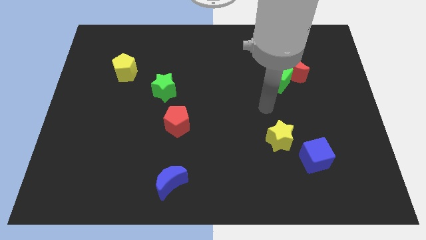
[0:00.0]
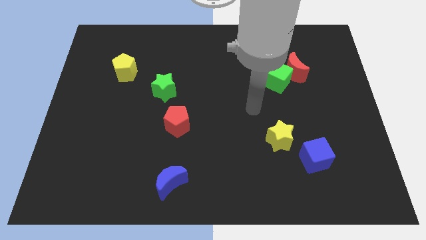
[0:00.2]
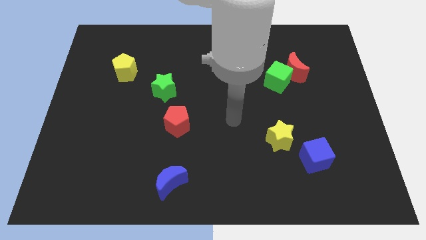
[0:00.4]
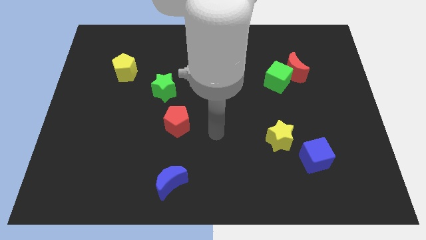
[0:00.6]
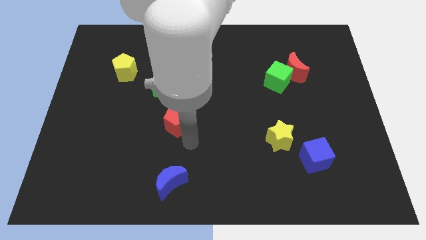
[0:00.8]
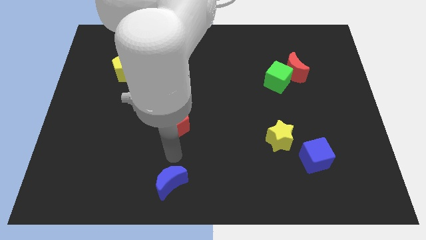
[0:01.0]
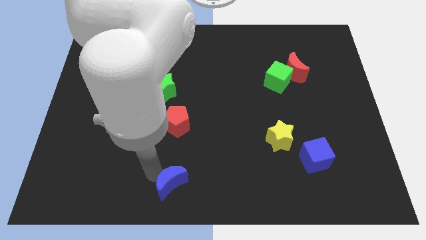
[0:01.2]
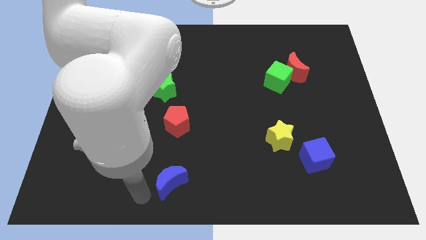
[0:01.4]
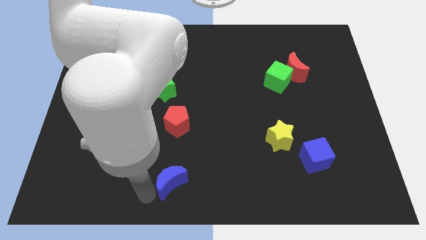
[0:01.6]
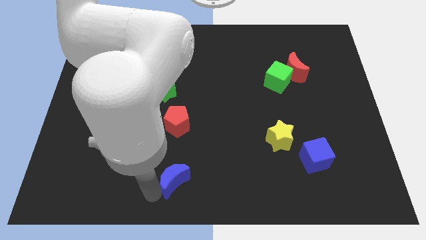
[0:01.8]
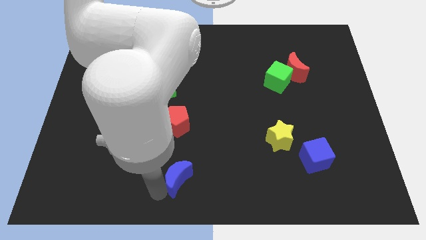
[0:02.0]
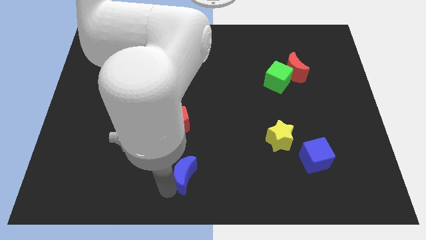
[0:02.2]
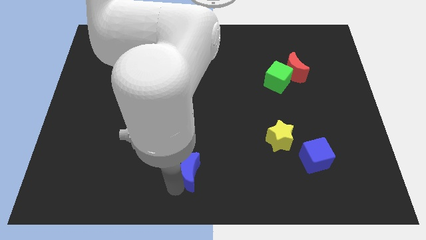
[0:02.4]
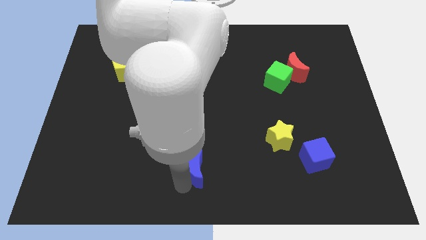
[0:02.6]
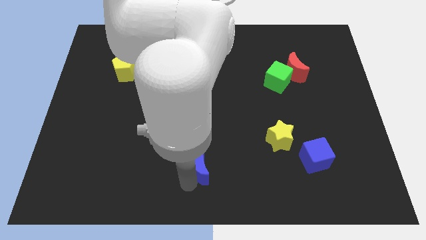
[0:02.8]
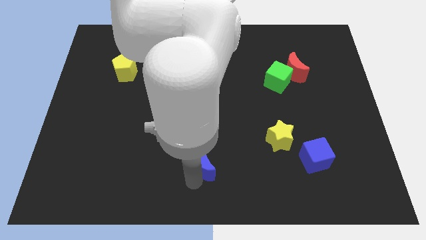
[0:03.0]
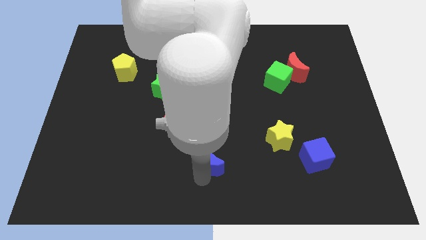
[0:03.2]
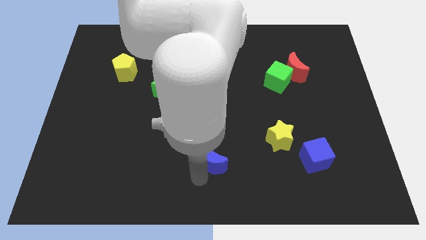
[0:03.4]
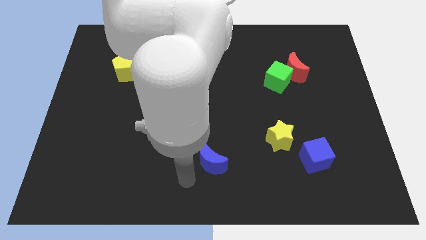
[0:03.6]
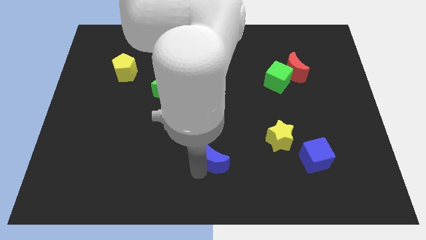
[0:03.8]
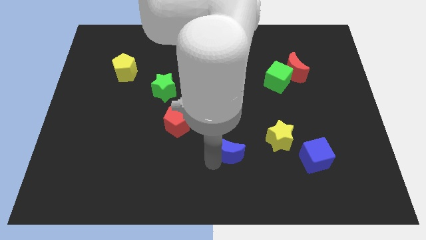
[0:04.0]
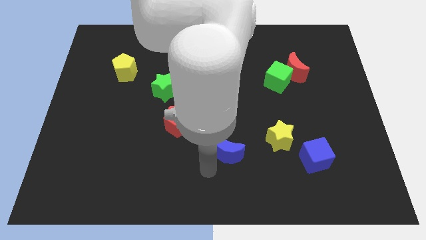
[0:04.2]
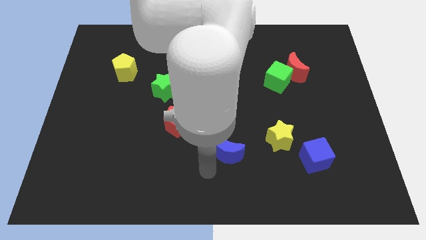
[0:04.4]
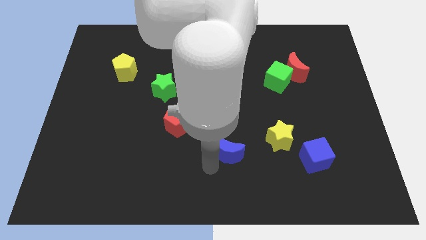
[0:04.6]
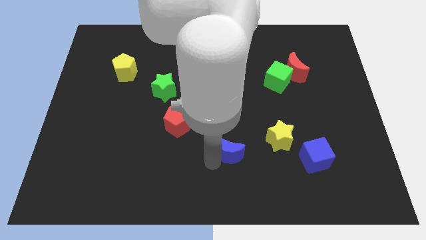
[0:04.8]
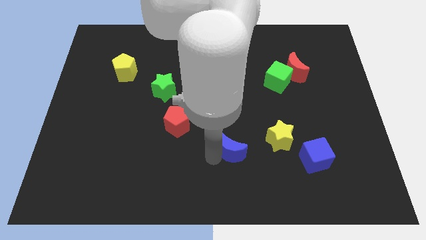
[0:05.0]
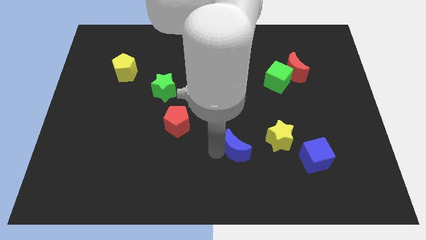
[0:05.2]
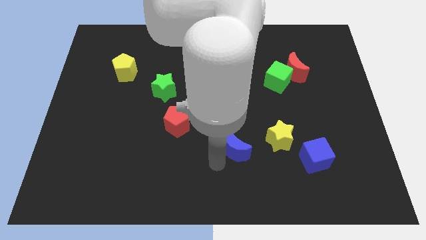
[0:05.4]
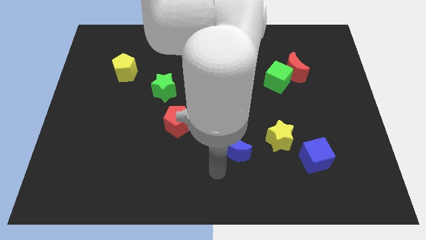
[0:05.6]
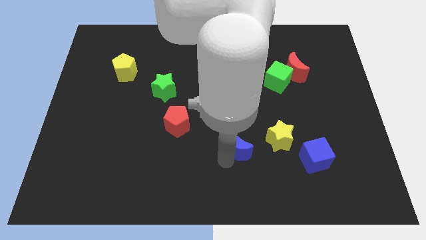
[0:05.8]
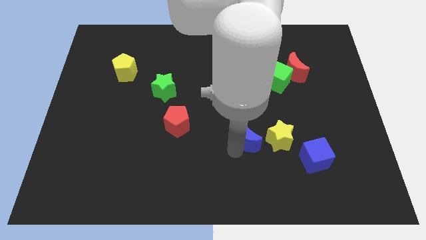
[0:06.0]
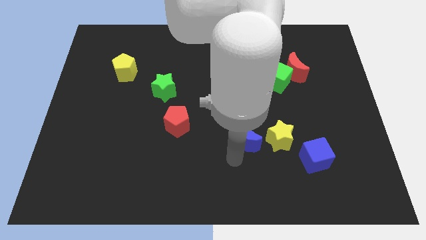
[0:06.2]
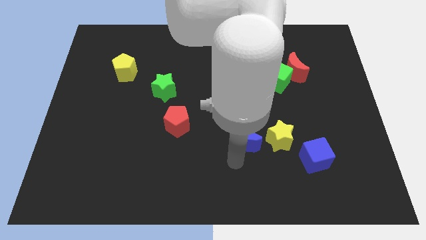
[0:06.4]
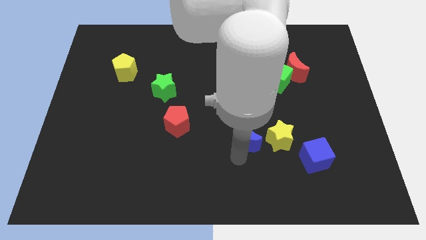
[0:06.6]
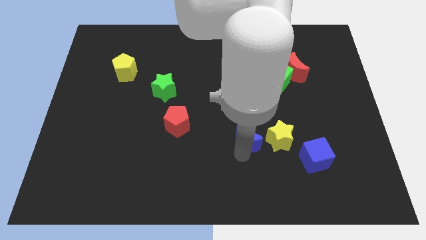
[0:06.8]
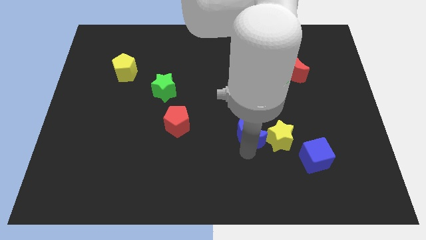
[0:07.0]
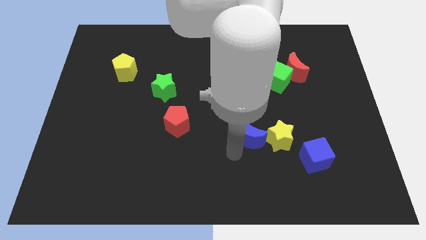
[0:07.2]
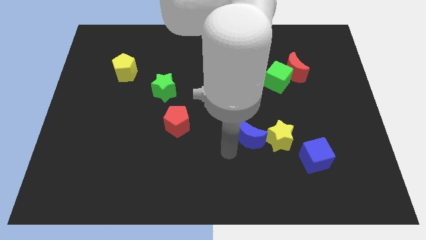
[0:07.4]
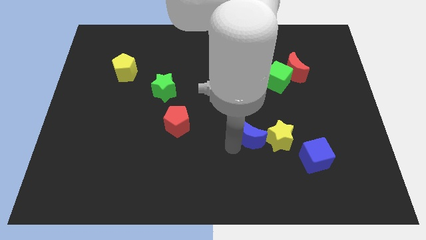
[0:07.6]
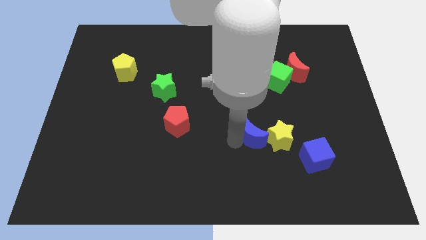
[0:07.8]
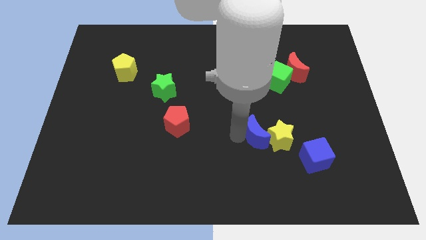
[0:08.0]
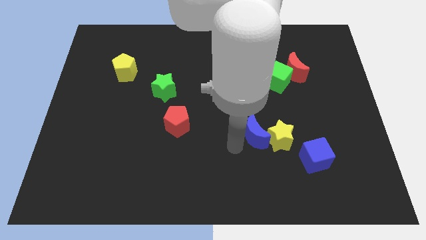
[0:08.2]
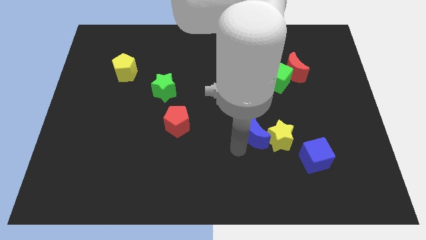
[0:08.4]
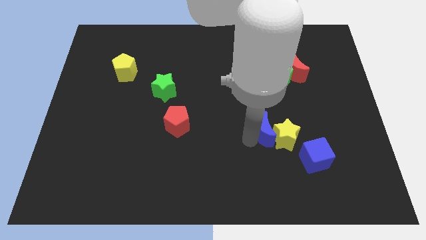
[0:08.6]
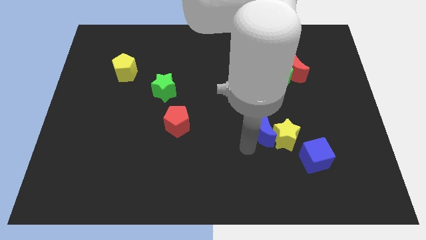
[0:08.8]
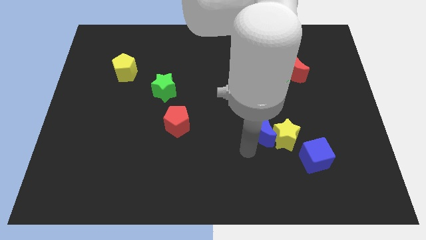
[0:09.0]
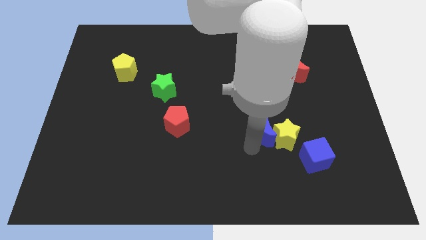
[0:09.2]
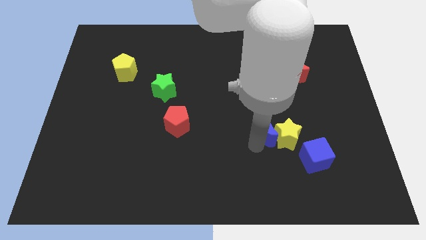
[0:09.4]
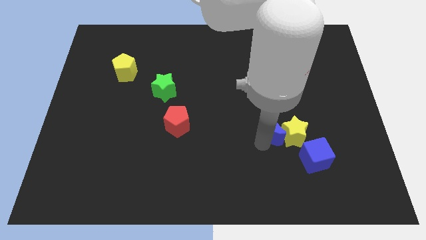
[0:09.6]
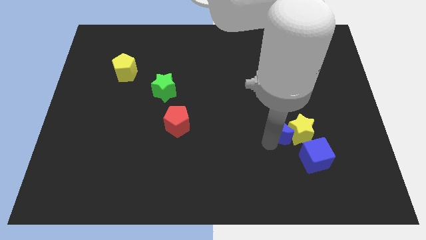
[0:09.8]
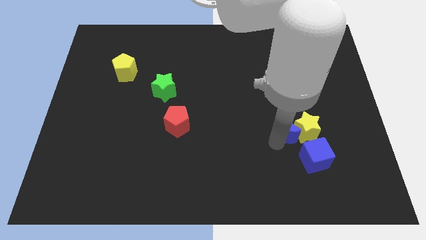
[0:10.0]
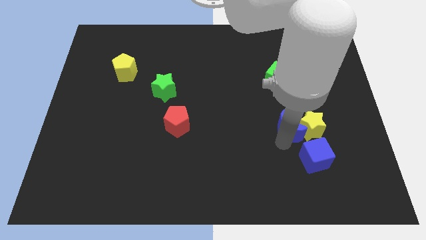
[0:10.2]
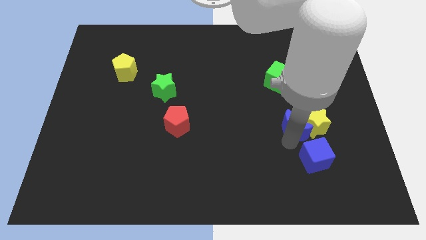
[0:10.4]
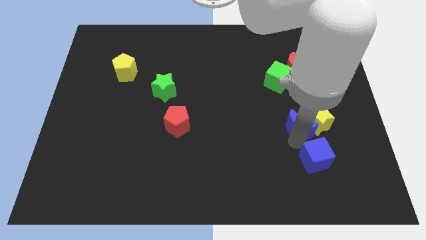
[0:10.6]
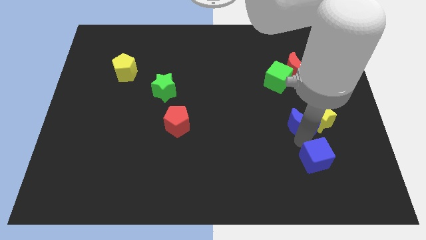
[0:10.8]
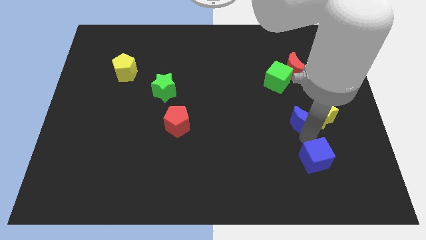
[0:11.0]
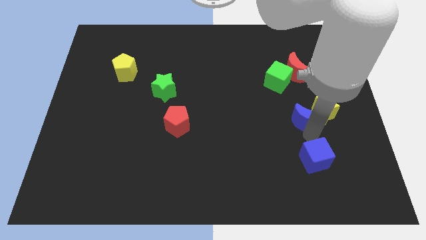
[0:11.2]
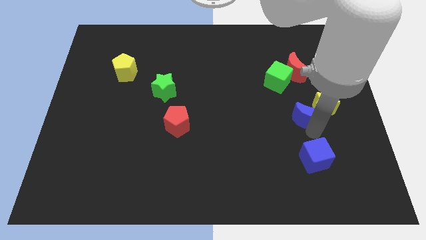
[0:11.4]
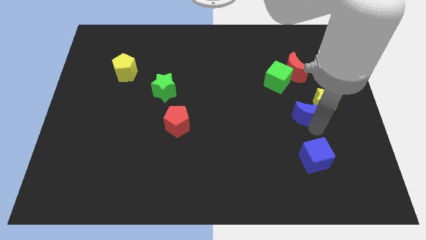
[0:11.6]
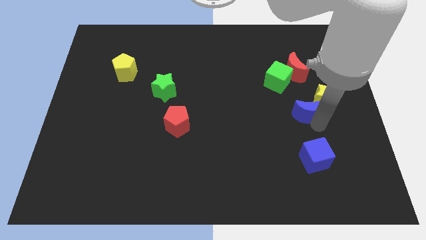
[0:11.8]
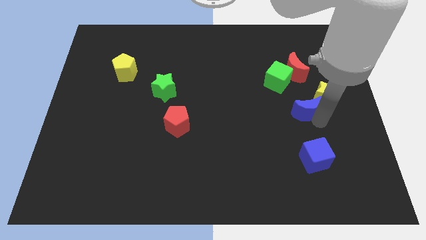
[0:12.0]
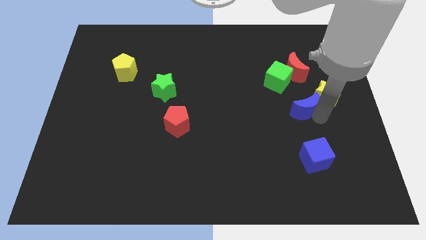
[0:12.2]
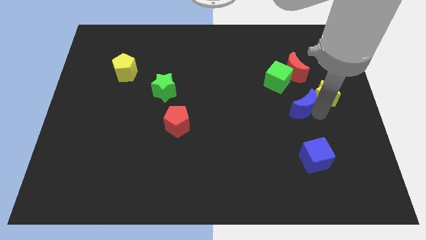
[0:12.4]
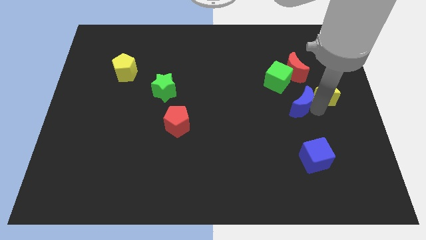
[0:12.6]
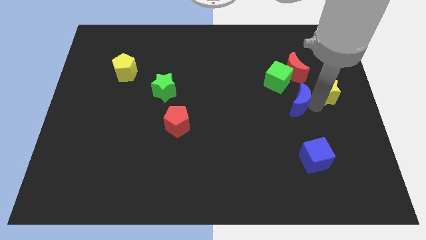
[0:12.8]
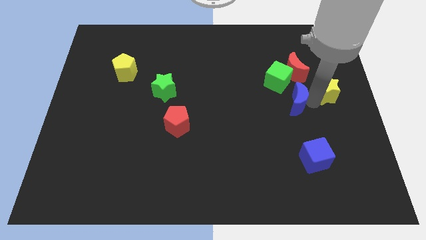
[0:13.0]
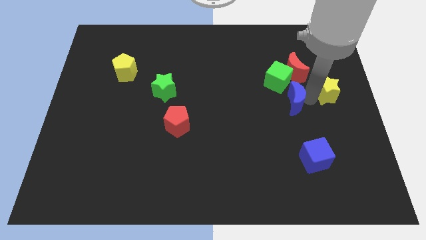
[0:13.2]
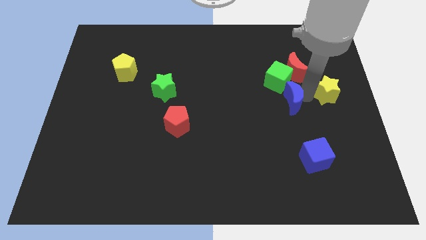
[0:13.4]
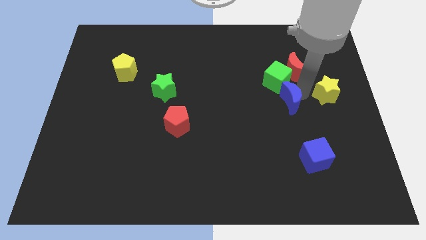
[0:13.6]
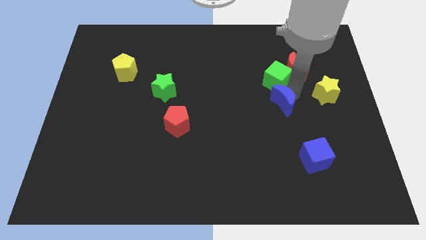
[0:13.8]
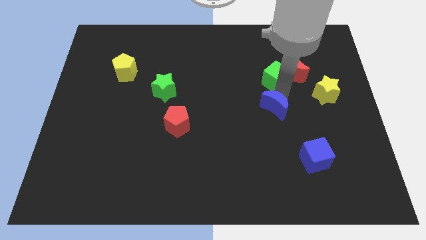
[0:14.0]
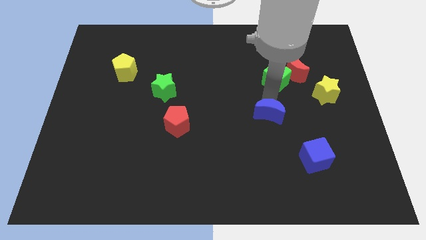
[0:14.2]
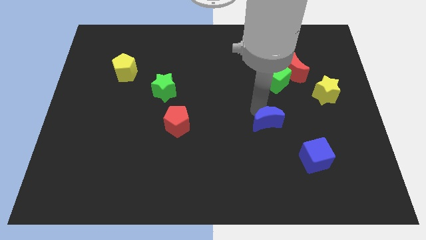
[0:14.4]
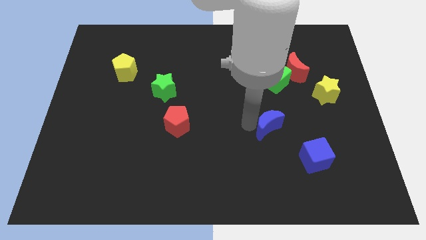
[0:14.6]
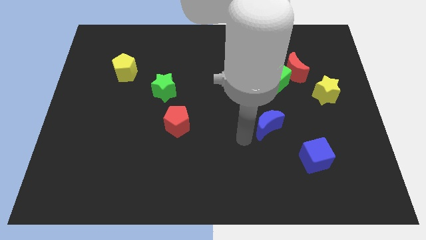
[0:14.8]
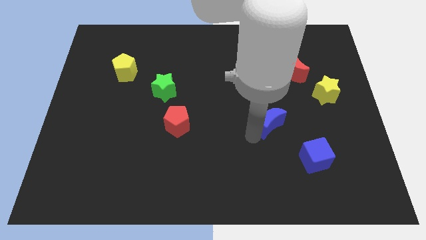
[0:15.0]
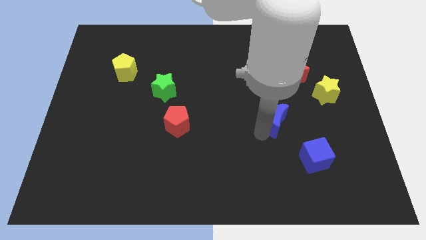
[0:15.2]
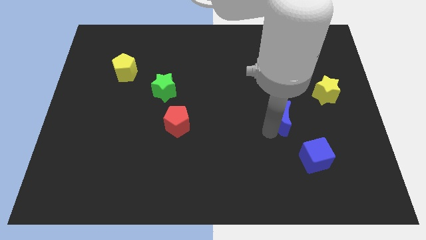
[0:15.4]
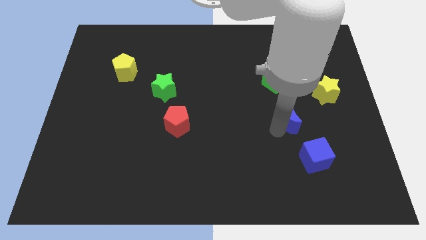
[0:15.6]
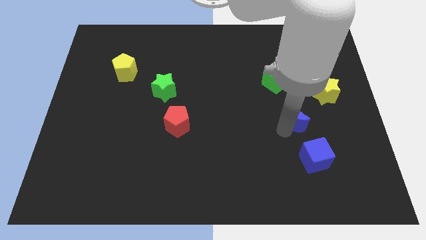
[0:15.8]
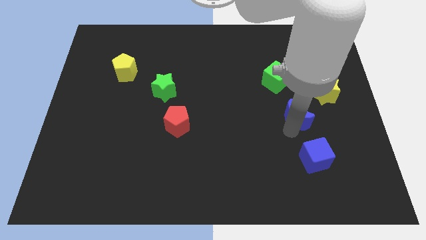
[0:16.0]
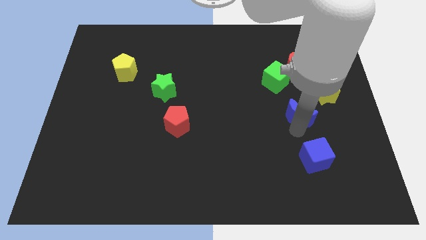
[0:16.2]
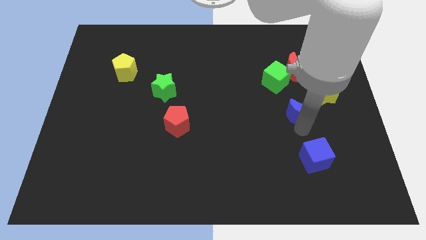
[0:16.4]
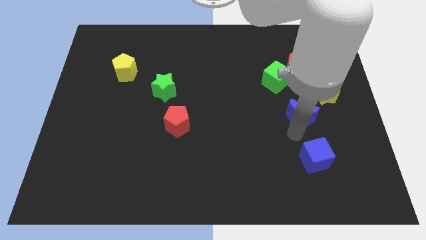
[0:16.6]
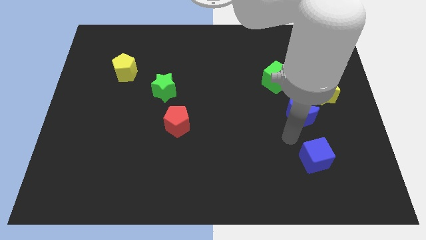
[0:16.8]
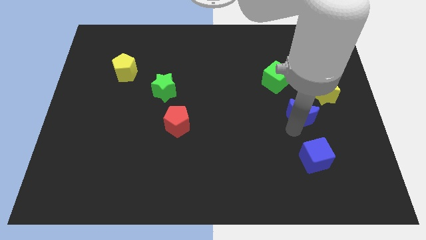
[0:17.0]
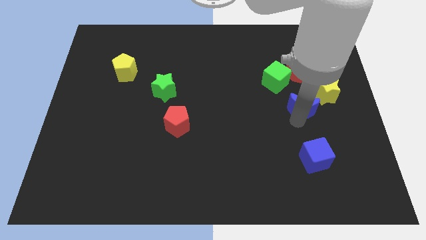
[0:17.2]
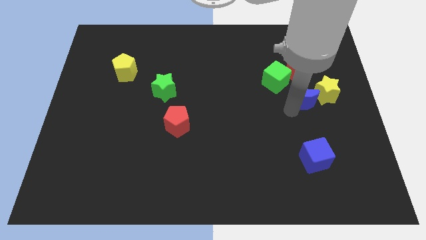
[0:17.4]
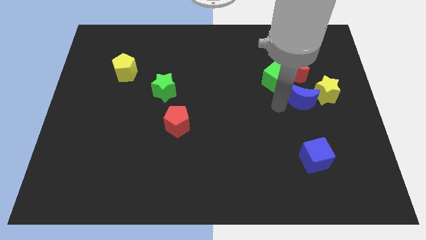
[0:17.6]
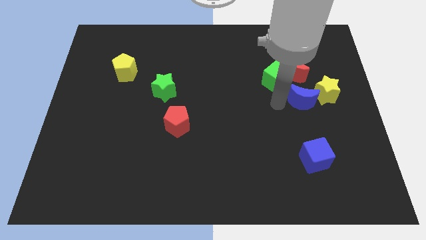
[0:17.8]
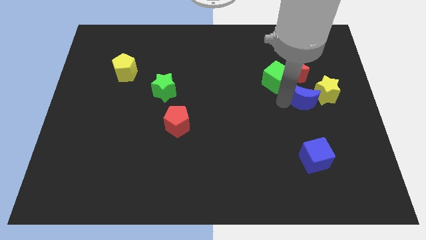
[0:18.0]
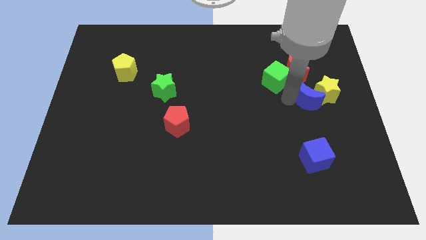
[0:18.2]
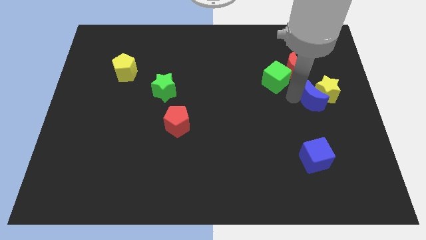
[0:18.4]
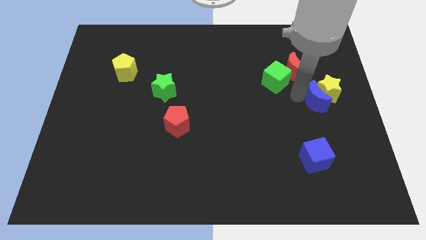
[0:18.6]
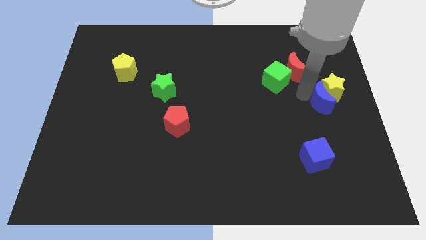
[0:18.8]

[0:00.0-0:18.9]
slide the blue moon to the center right
